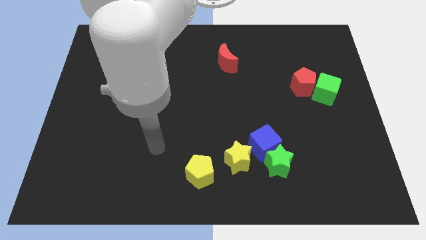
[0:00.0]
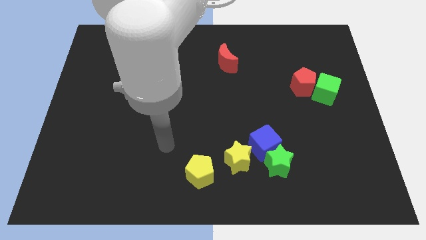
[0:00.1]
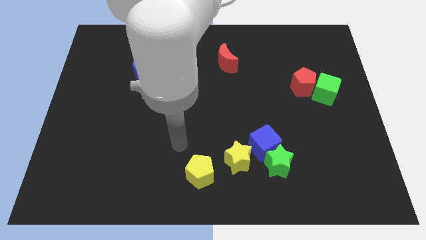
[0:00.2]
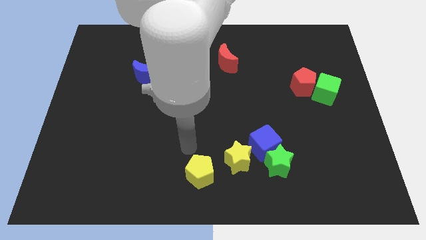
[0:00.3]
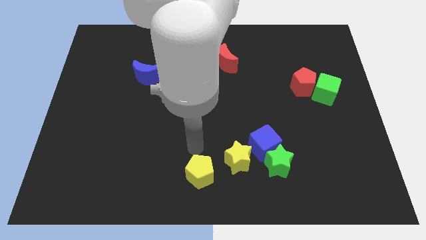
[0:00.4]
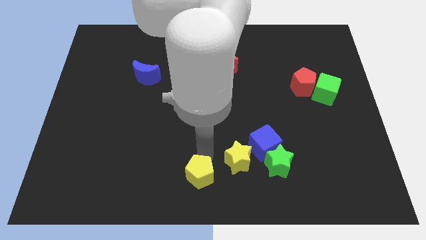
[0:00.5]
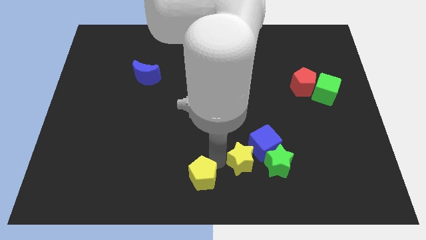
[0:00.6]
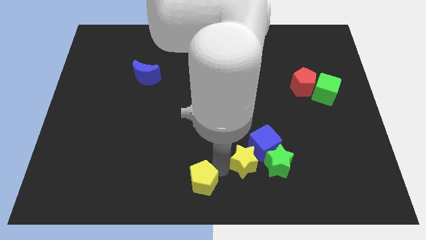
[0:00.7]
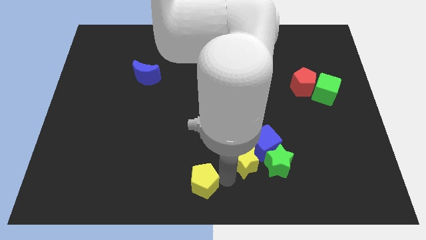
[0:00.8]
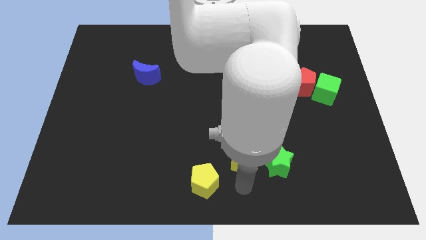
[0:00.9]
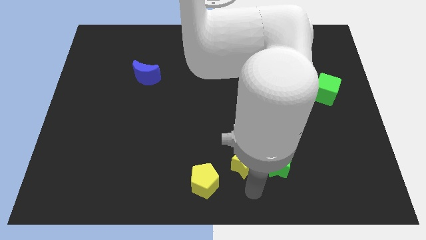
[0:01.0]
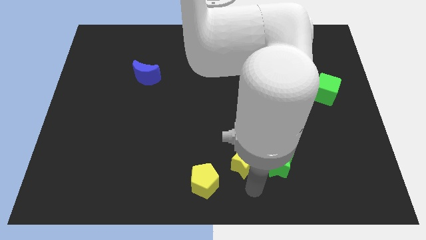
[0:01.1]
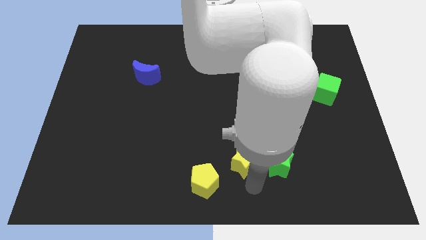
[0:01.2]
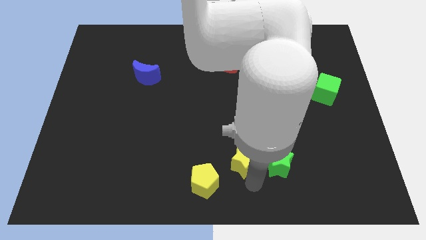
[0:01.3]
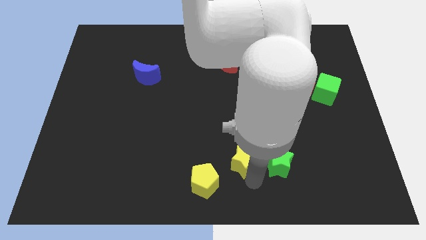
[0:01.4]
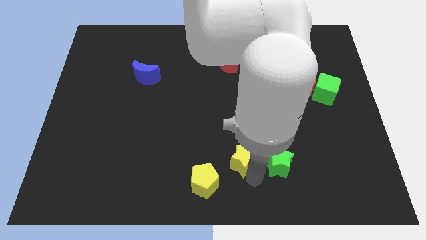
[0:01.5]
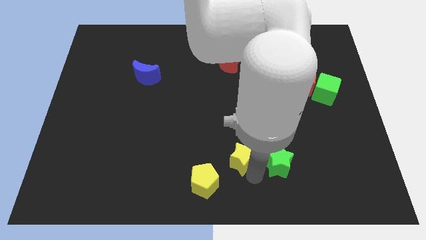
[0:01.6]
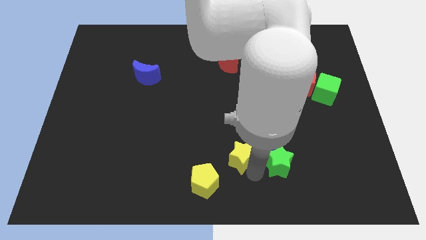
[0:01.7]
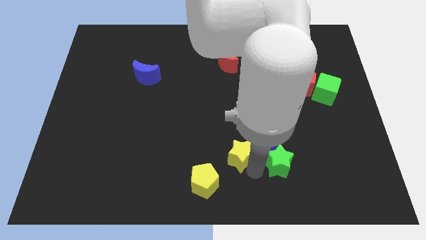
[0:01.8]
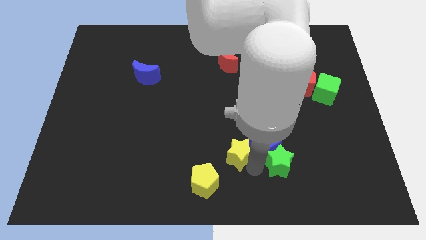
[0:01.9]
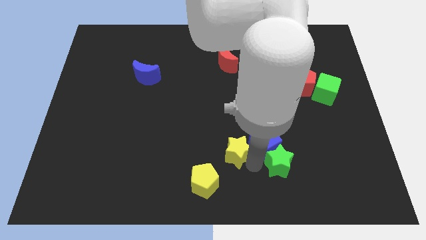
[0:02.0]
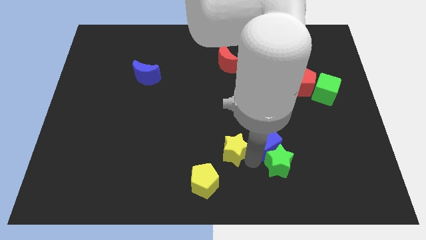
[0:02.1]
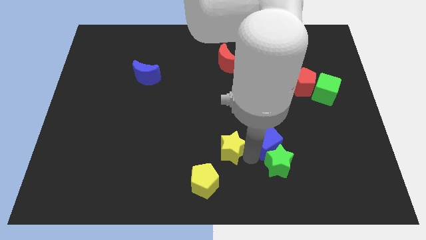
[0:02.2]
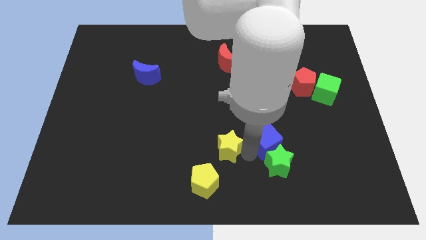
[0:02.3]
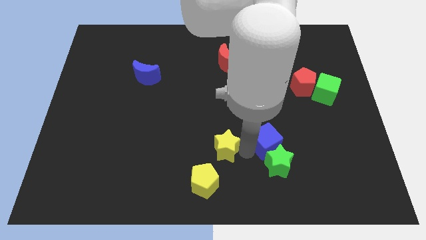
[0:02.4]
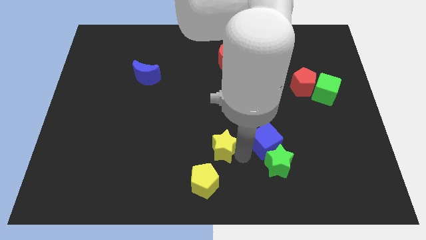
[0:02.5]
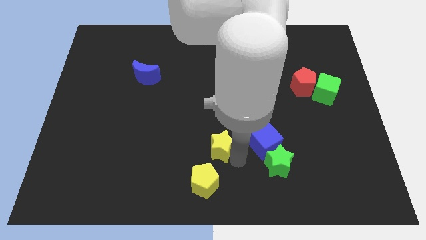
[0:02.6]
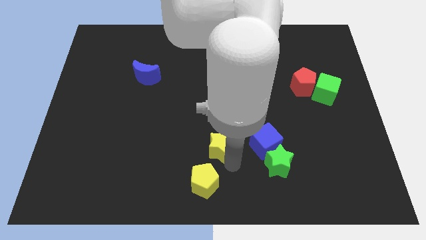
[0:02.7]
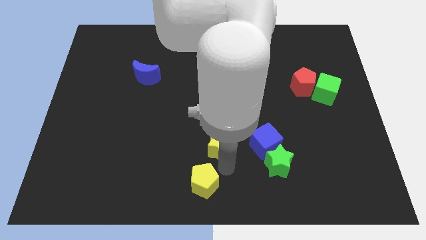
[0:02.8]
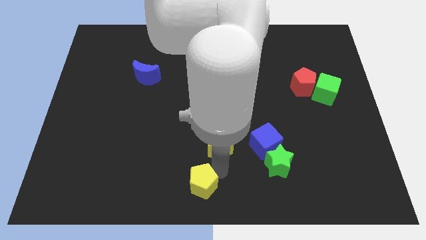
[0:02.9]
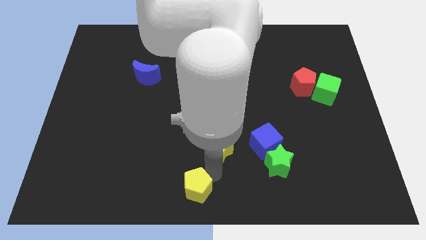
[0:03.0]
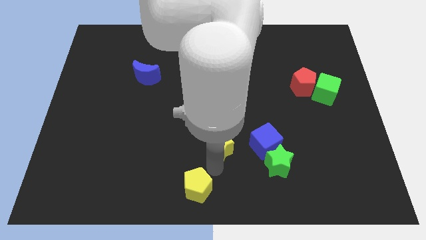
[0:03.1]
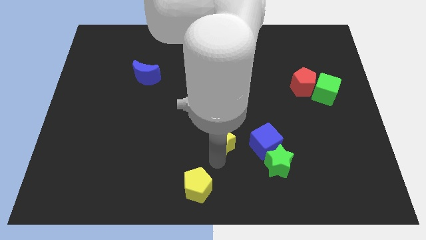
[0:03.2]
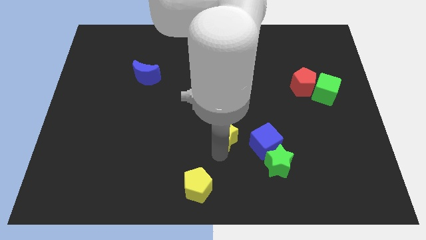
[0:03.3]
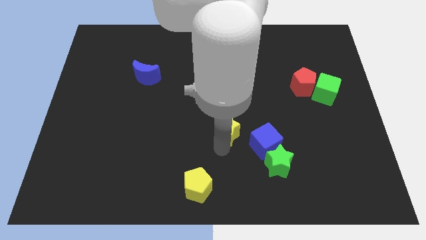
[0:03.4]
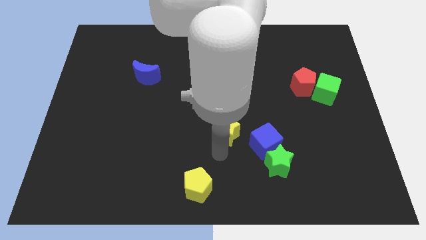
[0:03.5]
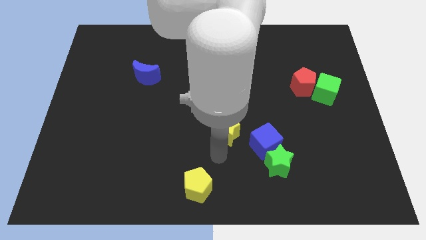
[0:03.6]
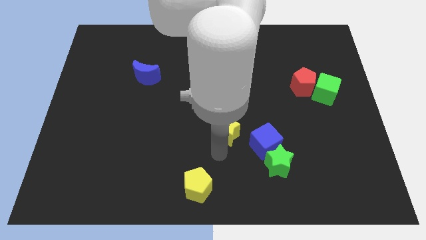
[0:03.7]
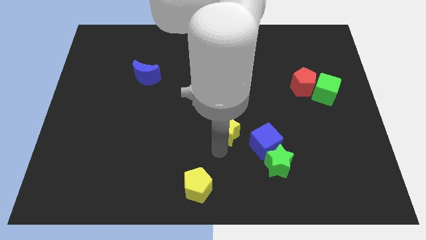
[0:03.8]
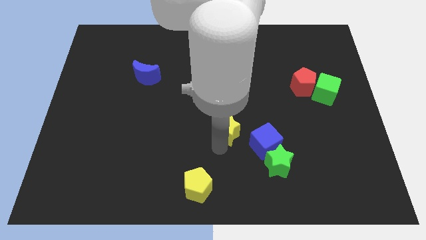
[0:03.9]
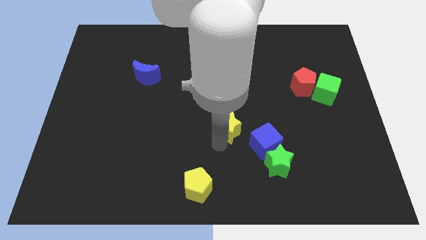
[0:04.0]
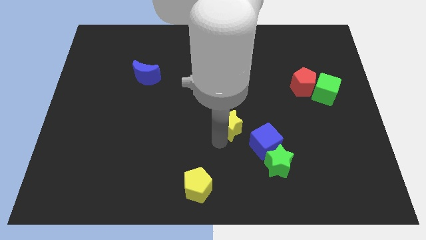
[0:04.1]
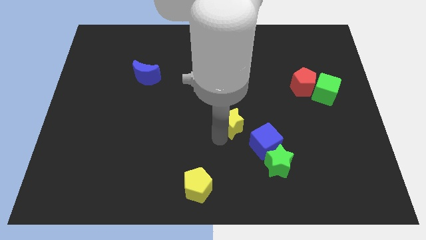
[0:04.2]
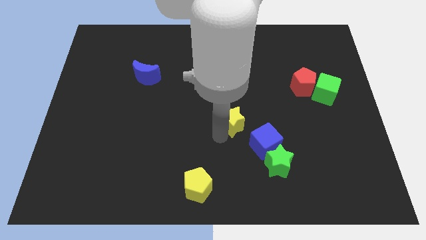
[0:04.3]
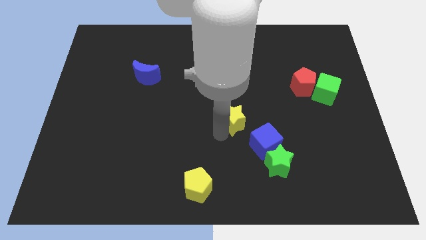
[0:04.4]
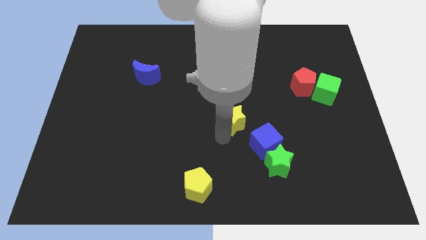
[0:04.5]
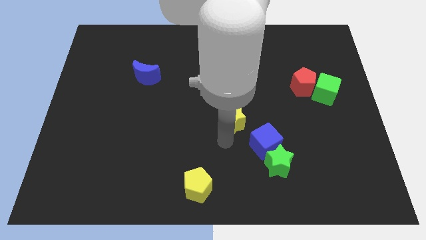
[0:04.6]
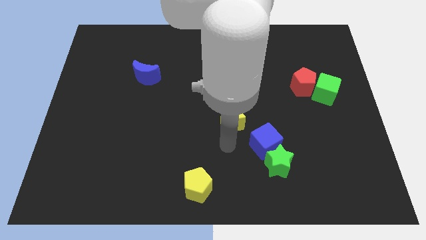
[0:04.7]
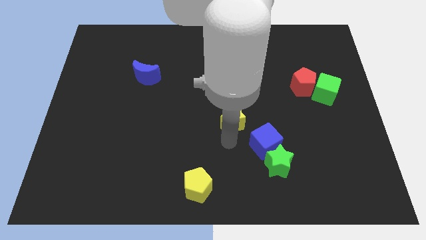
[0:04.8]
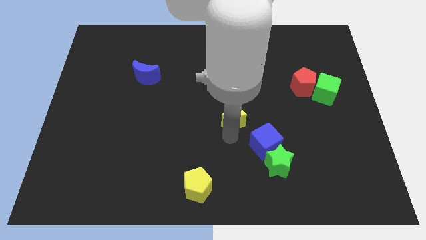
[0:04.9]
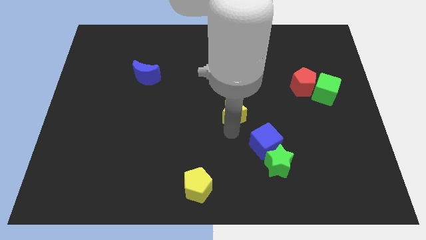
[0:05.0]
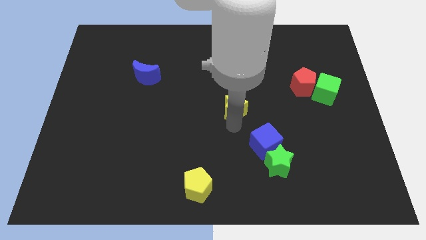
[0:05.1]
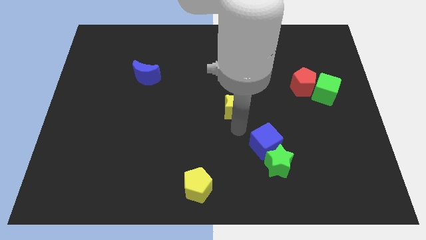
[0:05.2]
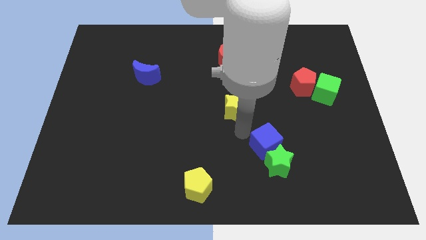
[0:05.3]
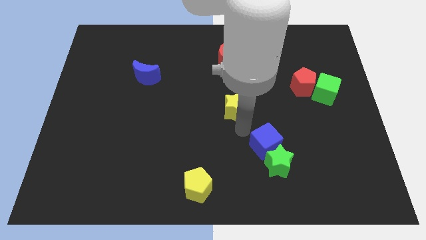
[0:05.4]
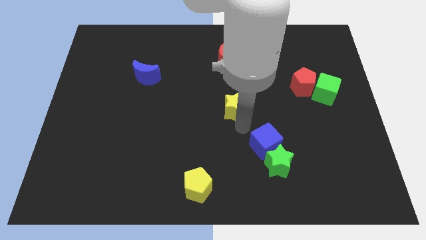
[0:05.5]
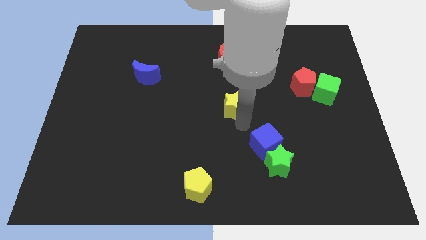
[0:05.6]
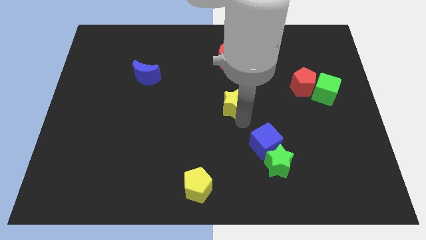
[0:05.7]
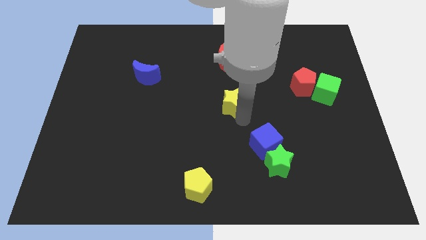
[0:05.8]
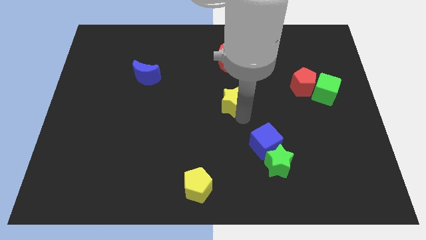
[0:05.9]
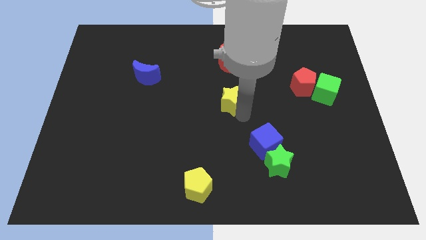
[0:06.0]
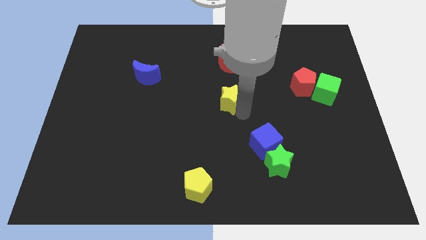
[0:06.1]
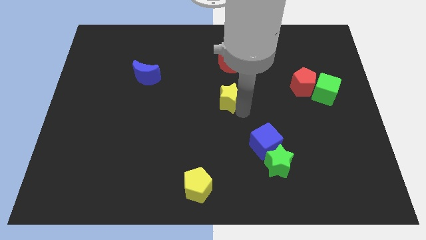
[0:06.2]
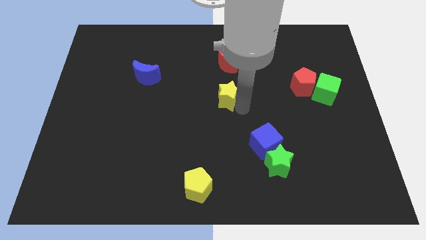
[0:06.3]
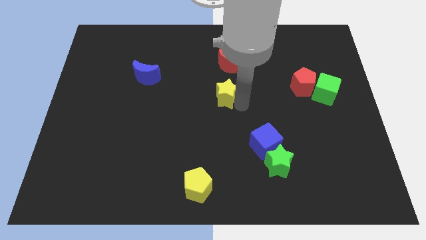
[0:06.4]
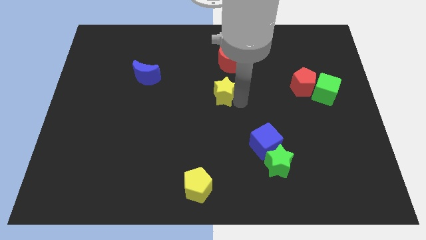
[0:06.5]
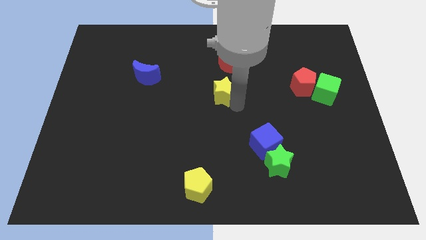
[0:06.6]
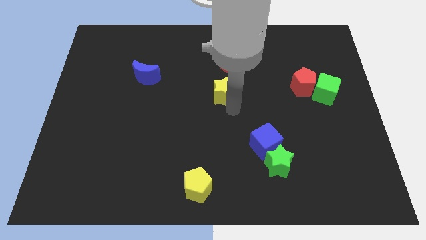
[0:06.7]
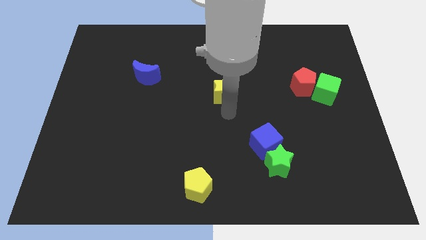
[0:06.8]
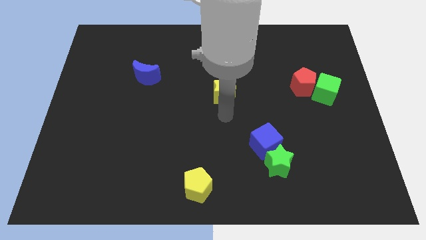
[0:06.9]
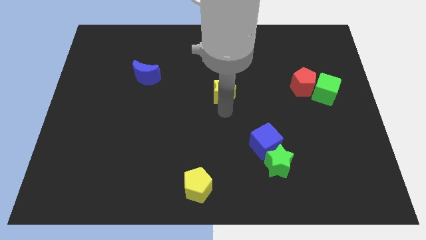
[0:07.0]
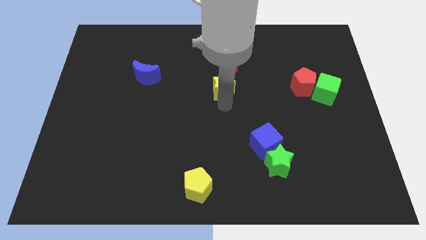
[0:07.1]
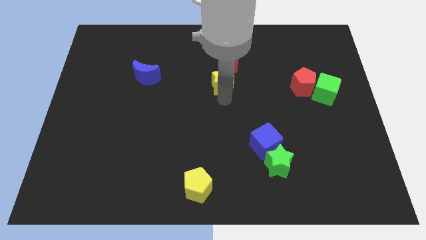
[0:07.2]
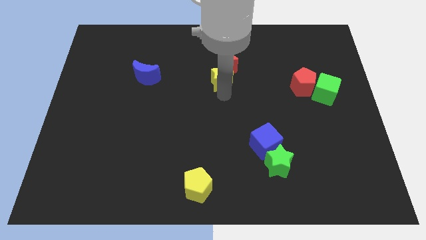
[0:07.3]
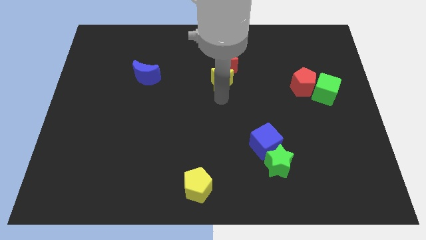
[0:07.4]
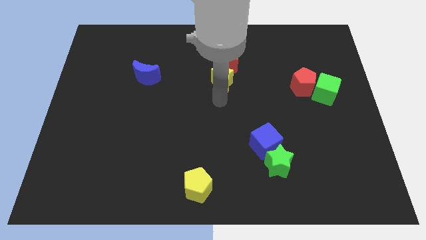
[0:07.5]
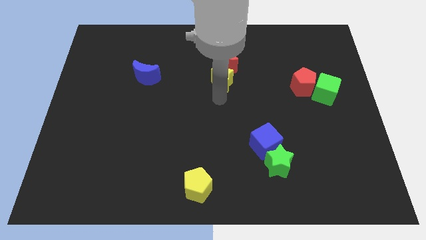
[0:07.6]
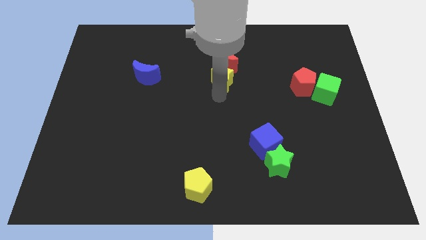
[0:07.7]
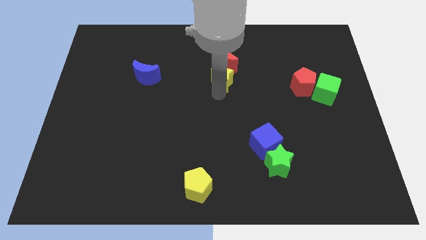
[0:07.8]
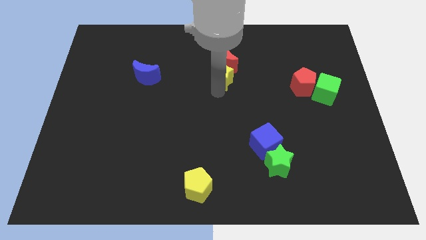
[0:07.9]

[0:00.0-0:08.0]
move the yellow star towards the red moon
